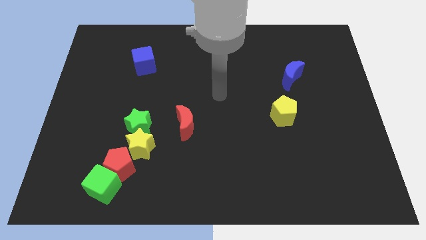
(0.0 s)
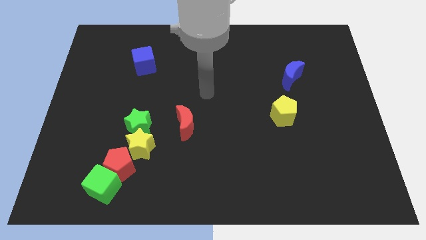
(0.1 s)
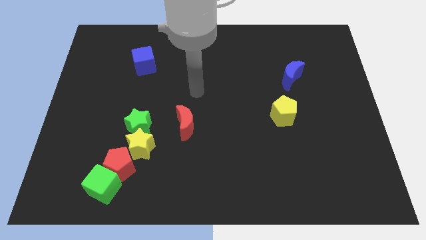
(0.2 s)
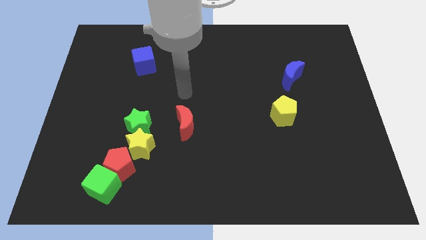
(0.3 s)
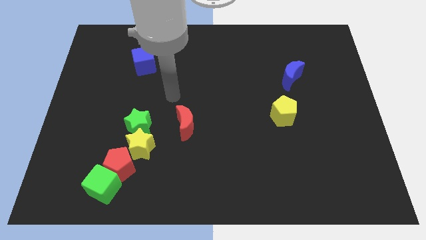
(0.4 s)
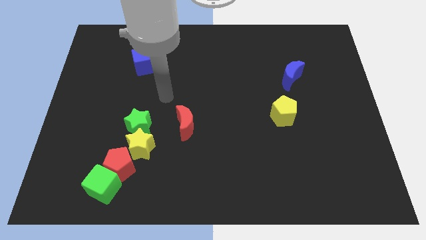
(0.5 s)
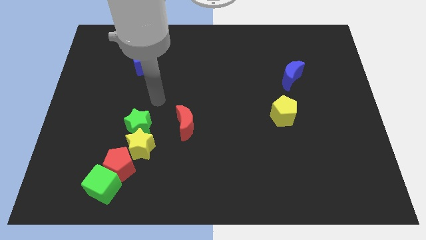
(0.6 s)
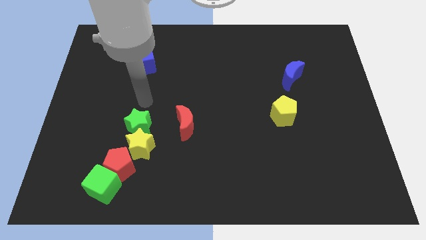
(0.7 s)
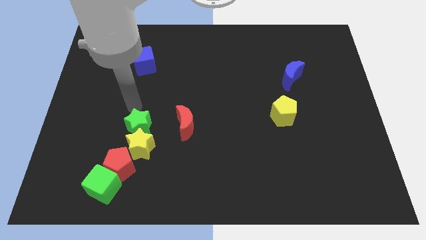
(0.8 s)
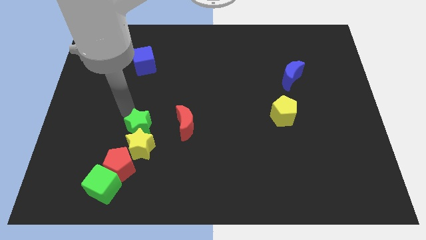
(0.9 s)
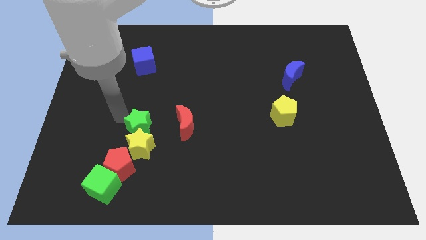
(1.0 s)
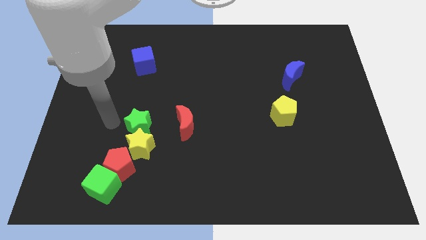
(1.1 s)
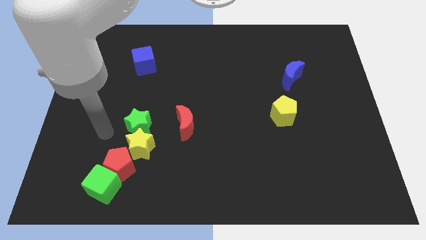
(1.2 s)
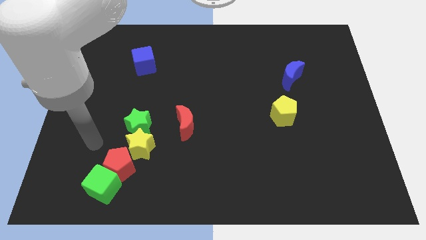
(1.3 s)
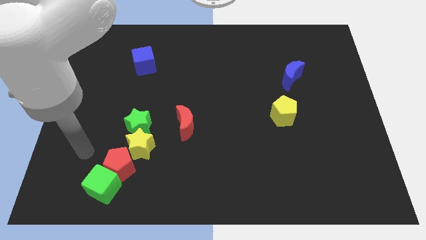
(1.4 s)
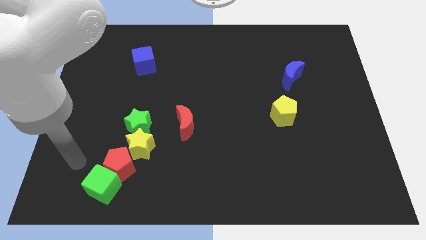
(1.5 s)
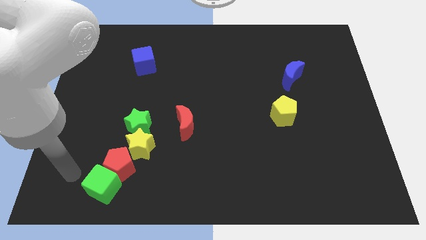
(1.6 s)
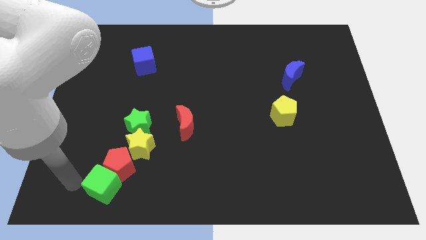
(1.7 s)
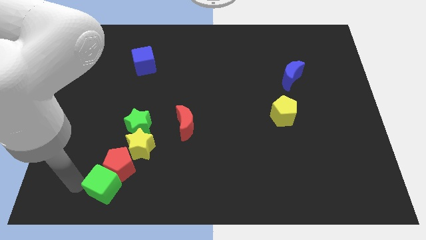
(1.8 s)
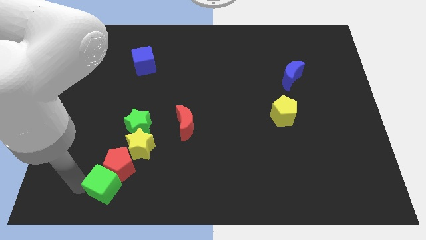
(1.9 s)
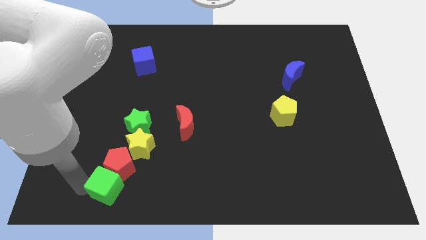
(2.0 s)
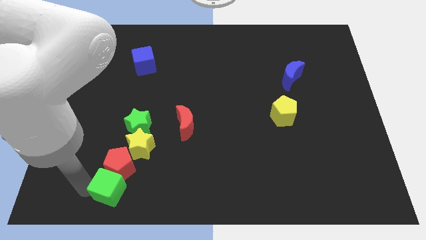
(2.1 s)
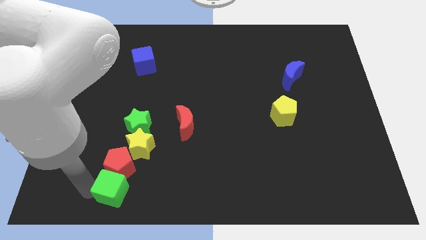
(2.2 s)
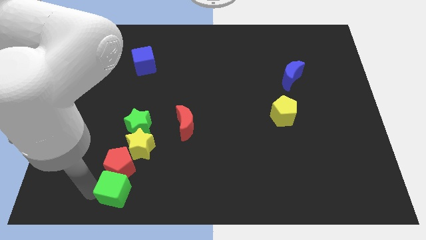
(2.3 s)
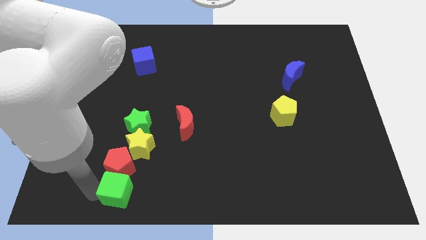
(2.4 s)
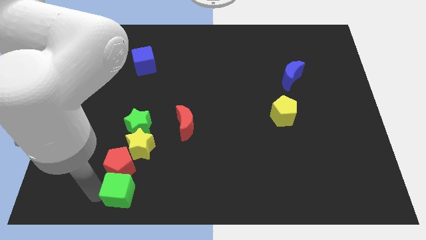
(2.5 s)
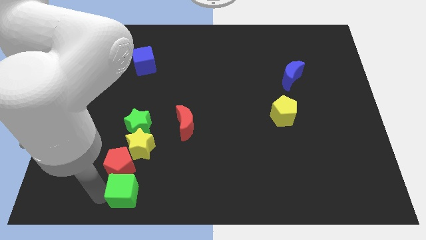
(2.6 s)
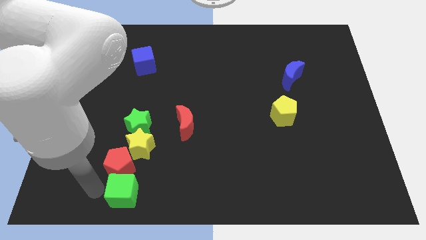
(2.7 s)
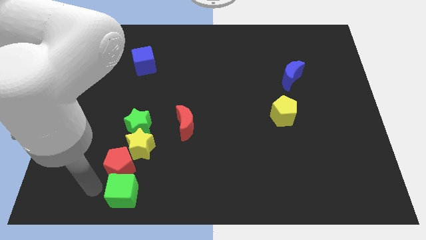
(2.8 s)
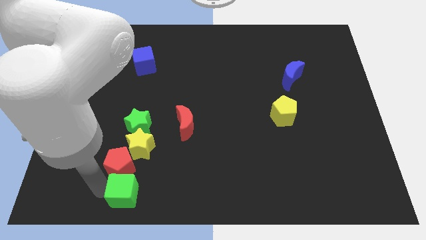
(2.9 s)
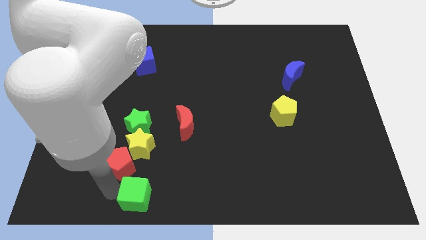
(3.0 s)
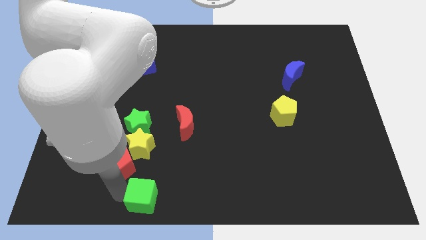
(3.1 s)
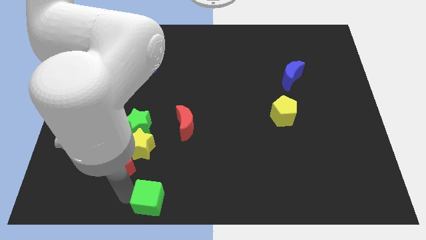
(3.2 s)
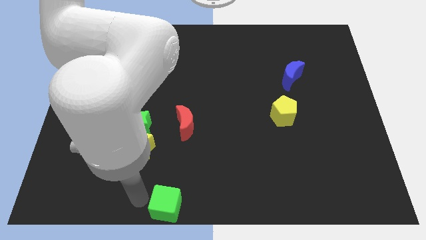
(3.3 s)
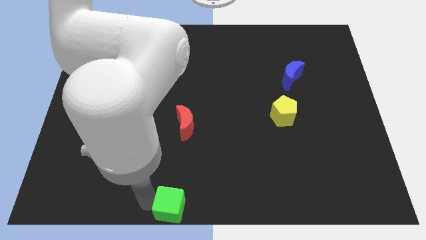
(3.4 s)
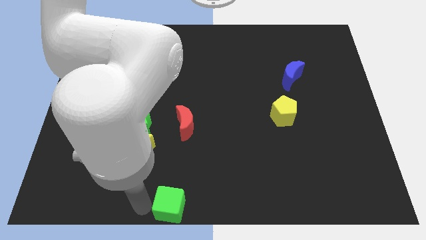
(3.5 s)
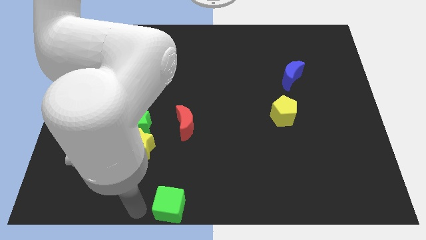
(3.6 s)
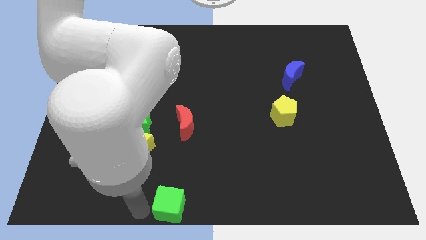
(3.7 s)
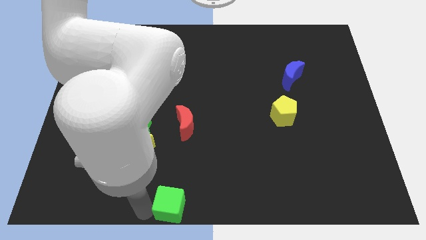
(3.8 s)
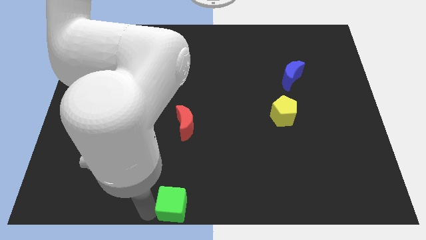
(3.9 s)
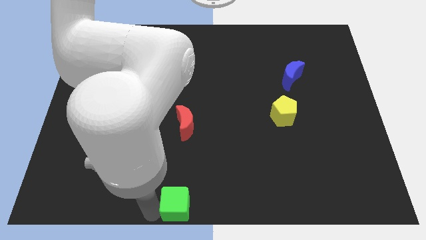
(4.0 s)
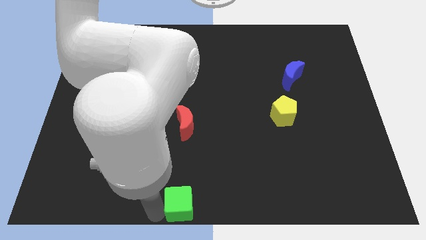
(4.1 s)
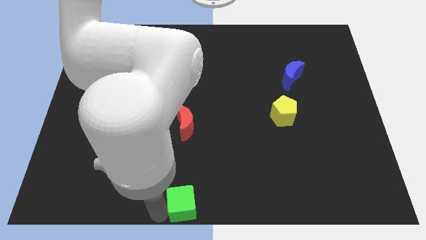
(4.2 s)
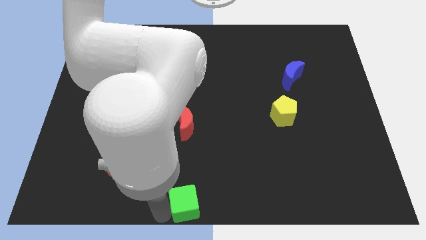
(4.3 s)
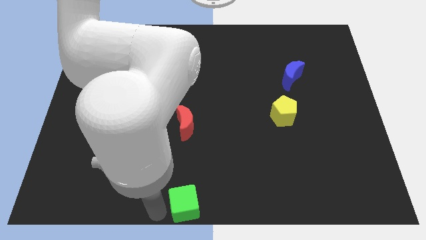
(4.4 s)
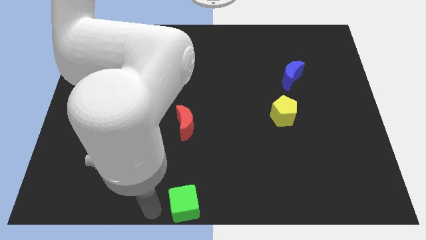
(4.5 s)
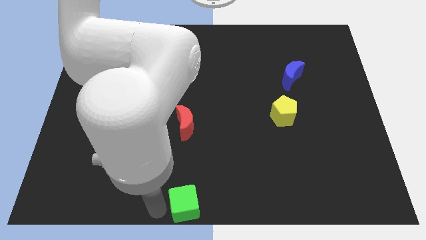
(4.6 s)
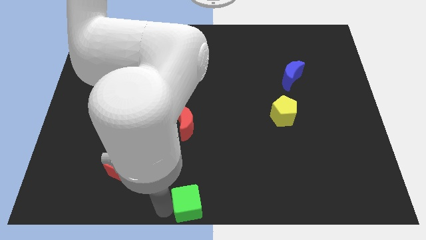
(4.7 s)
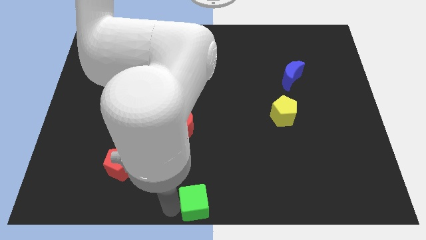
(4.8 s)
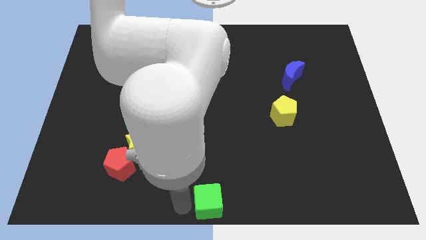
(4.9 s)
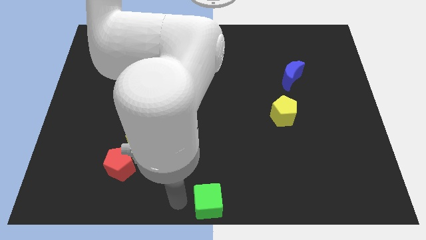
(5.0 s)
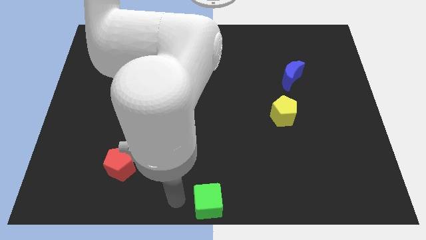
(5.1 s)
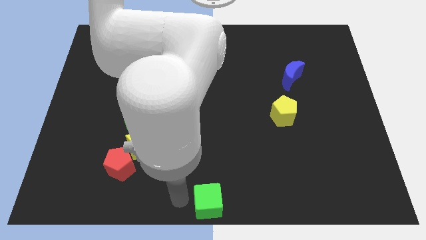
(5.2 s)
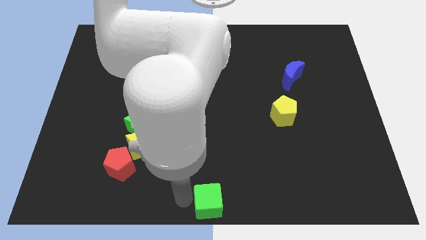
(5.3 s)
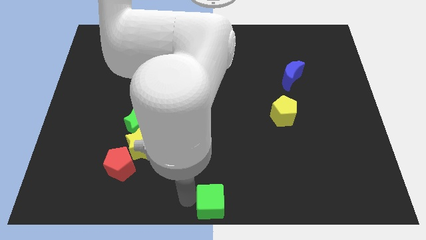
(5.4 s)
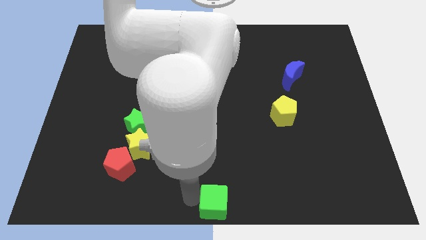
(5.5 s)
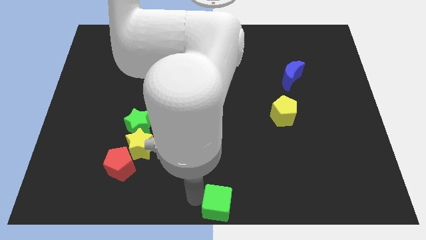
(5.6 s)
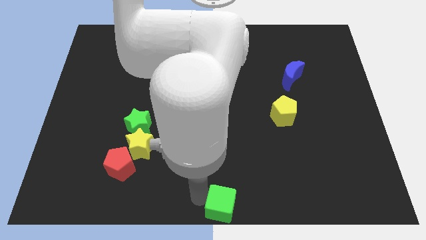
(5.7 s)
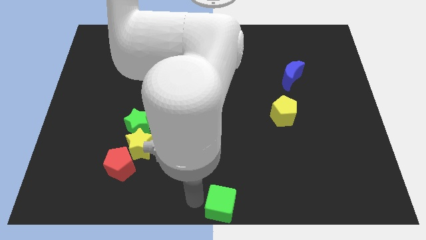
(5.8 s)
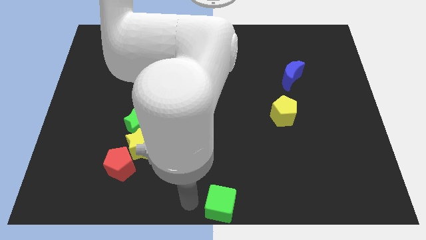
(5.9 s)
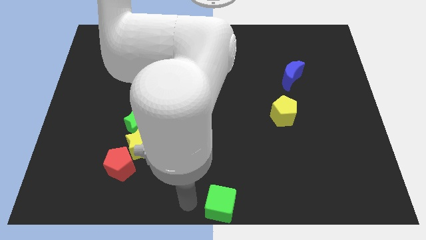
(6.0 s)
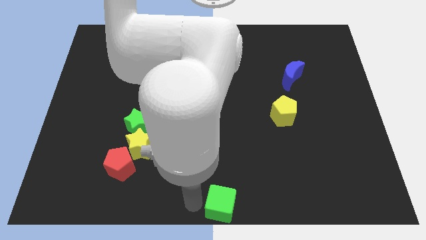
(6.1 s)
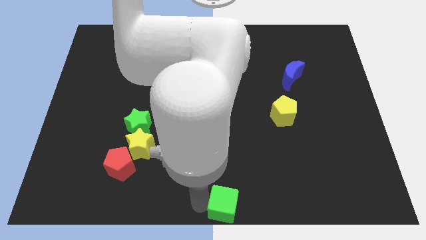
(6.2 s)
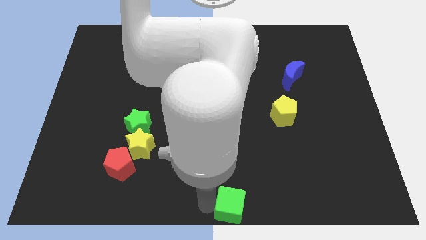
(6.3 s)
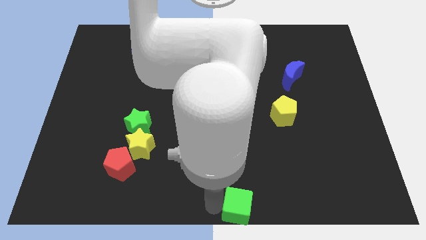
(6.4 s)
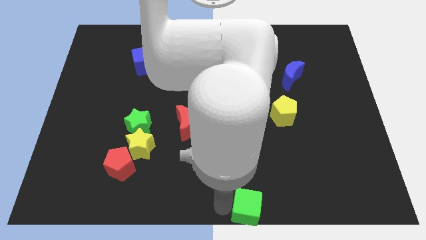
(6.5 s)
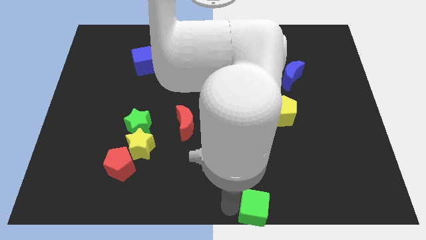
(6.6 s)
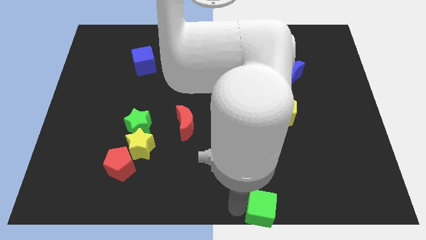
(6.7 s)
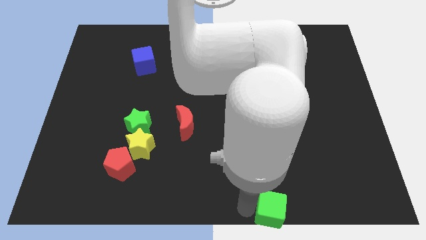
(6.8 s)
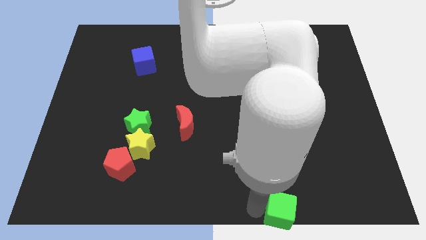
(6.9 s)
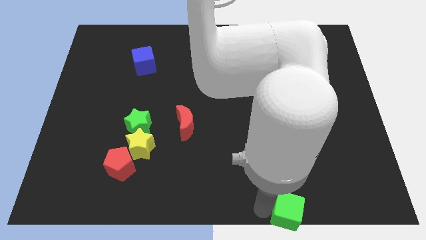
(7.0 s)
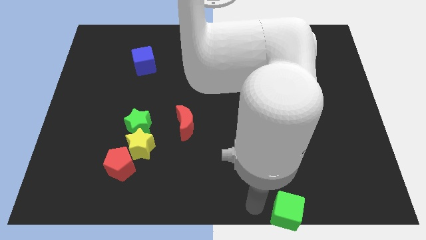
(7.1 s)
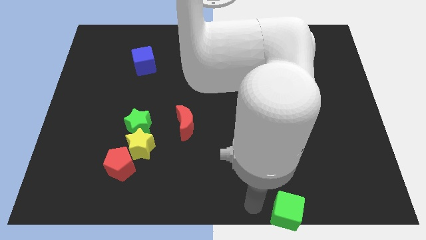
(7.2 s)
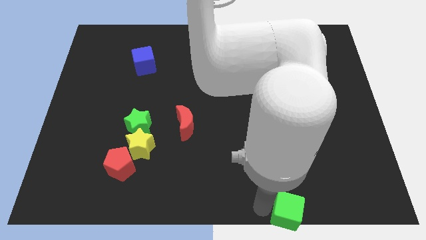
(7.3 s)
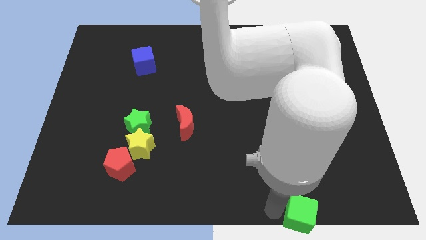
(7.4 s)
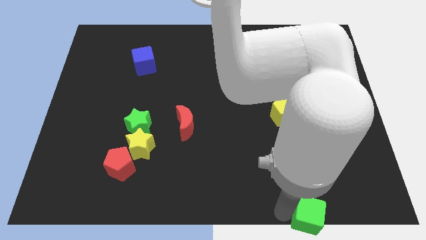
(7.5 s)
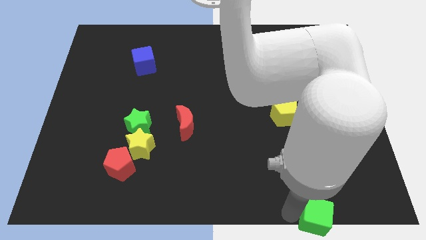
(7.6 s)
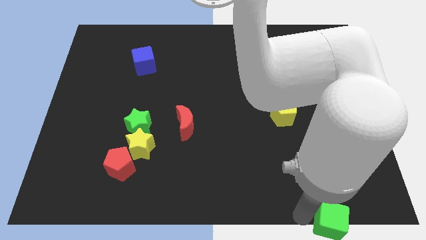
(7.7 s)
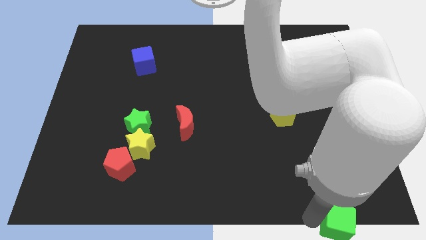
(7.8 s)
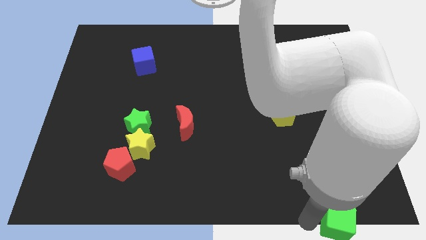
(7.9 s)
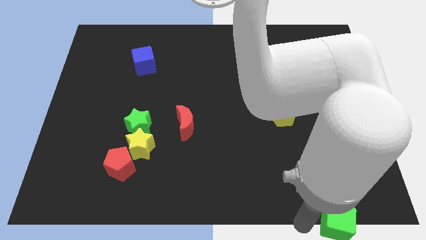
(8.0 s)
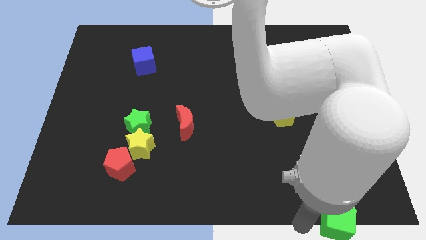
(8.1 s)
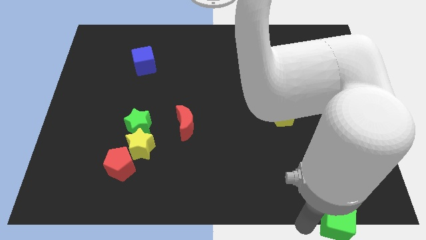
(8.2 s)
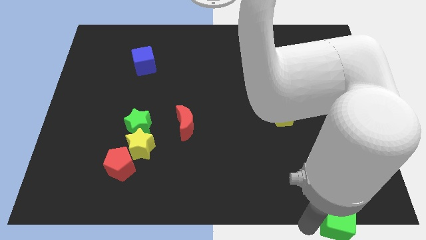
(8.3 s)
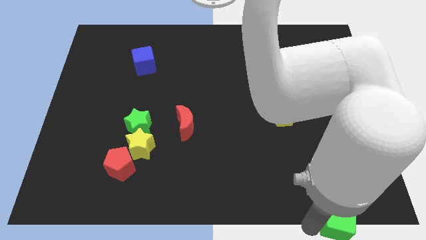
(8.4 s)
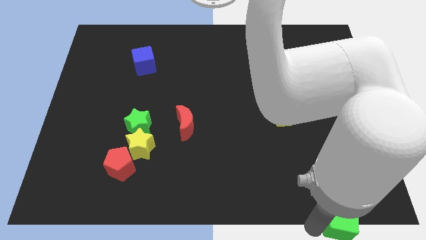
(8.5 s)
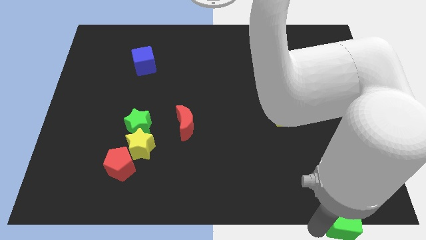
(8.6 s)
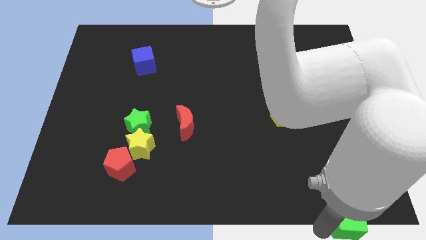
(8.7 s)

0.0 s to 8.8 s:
move the green cube to the bottom right corner
